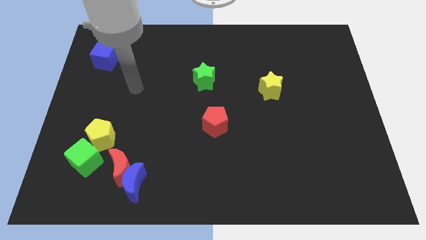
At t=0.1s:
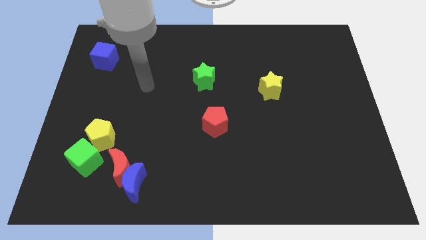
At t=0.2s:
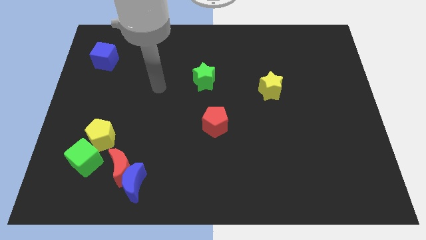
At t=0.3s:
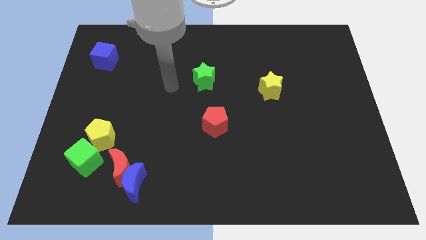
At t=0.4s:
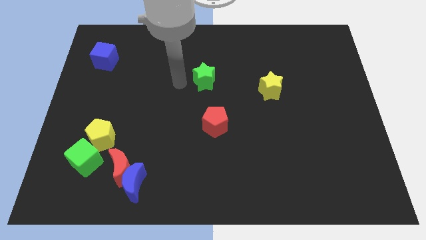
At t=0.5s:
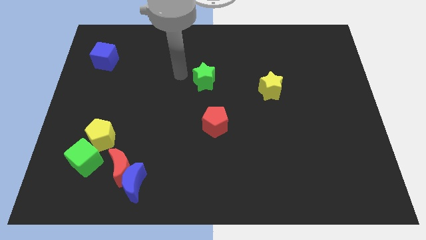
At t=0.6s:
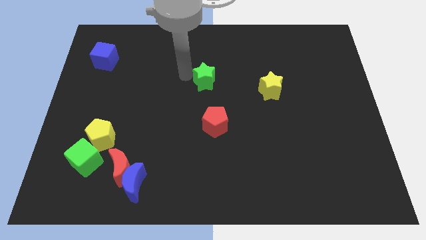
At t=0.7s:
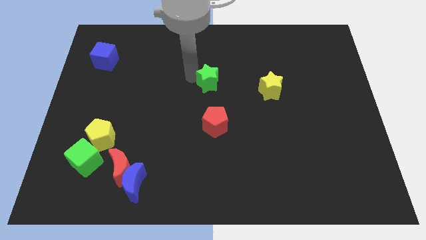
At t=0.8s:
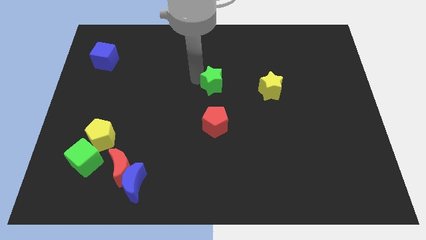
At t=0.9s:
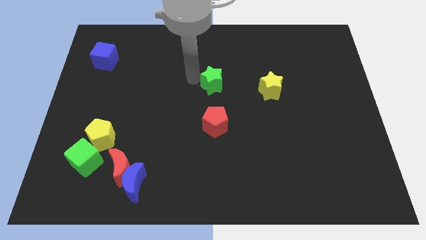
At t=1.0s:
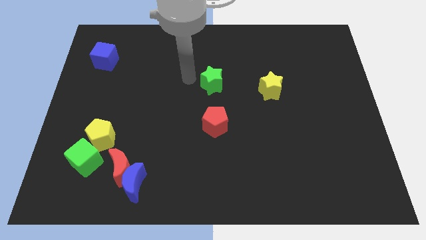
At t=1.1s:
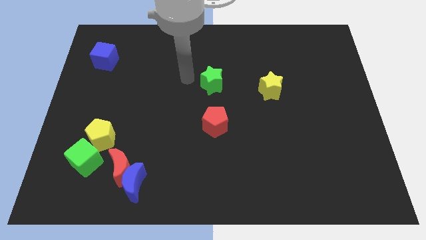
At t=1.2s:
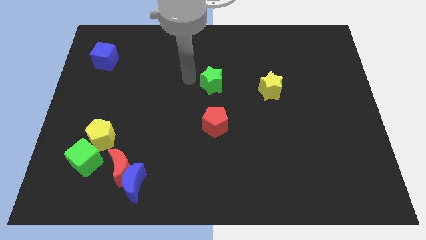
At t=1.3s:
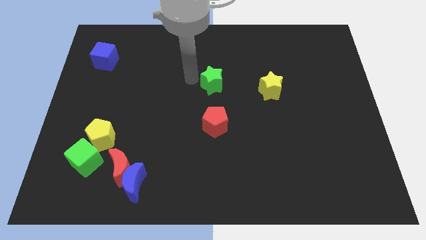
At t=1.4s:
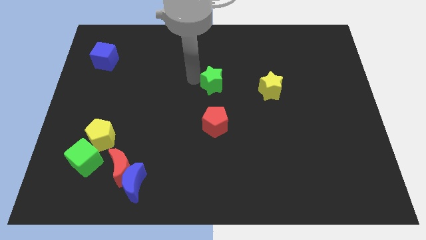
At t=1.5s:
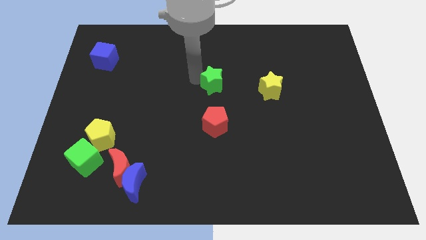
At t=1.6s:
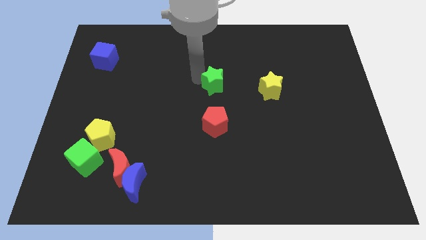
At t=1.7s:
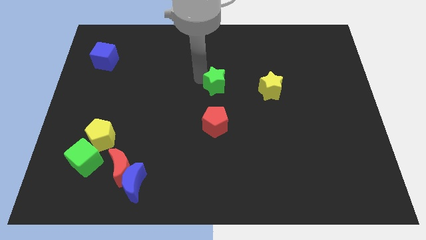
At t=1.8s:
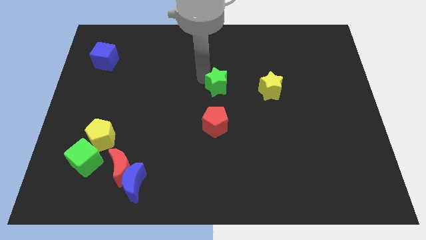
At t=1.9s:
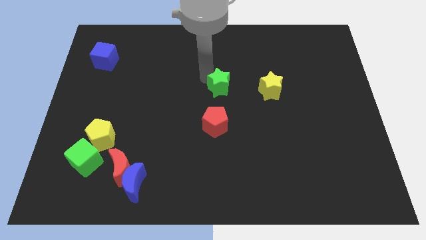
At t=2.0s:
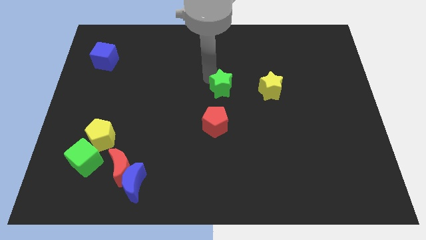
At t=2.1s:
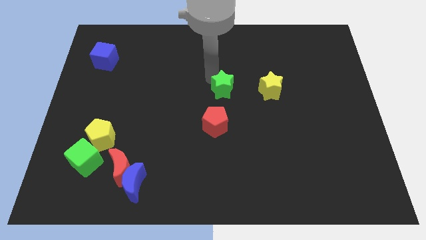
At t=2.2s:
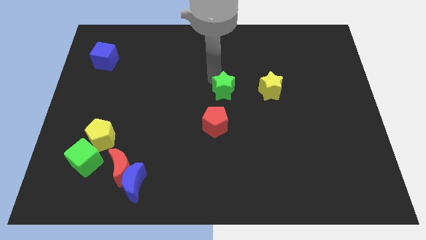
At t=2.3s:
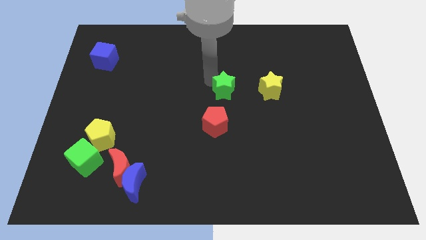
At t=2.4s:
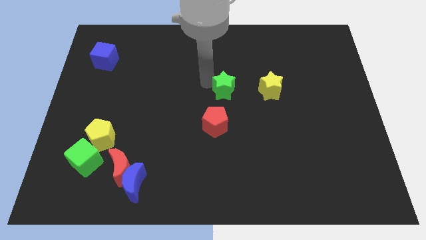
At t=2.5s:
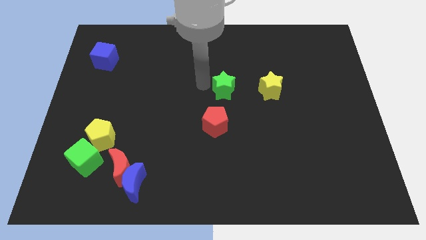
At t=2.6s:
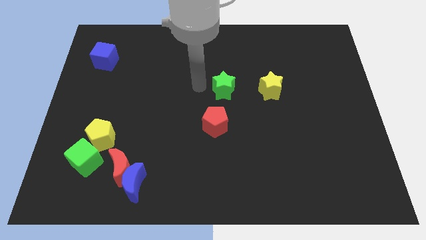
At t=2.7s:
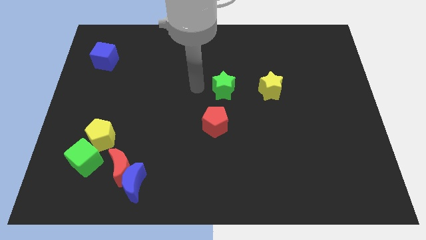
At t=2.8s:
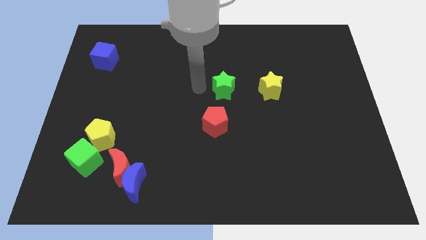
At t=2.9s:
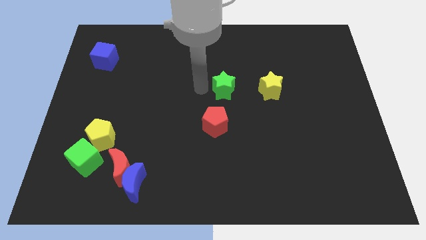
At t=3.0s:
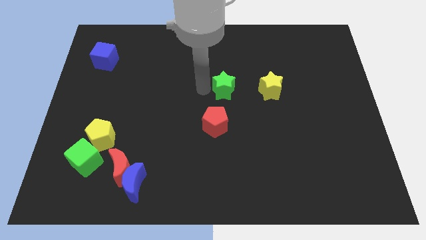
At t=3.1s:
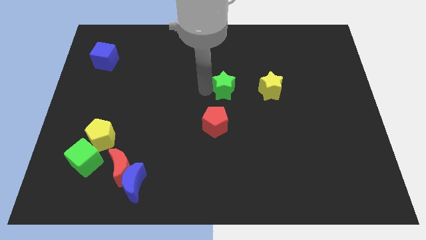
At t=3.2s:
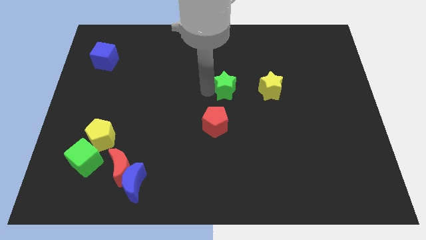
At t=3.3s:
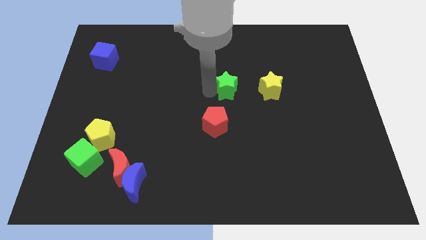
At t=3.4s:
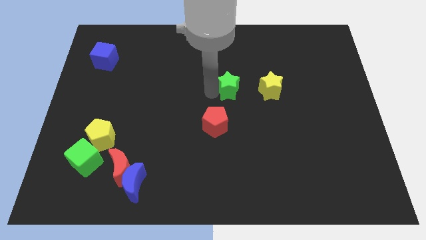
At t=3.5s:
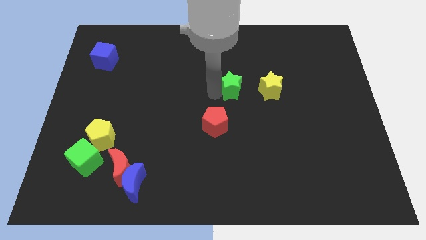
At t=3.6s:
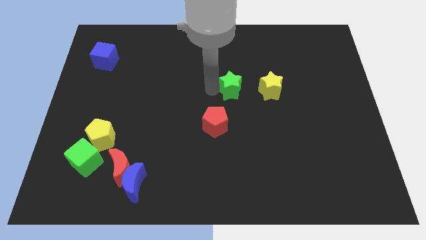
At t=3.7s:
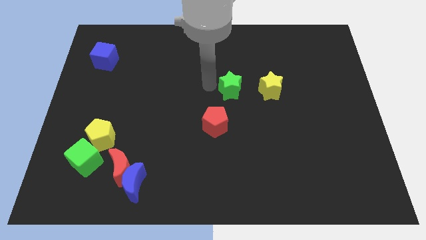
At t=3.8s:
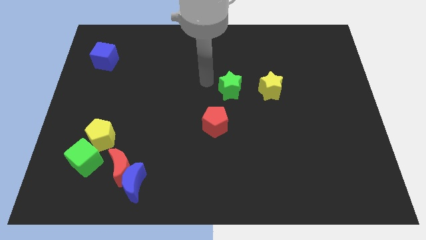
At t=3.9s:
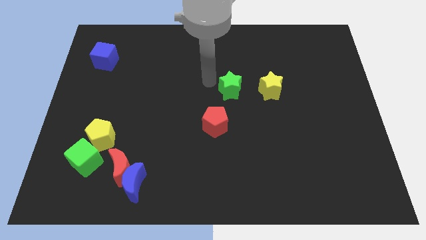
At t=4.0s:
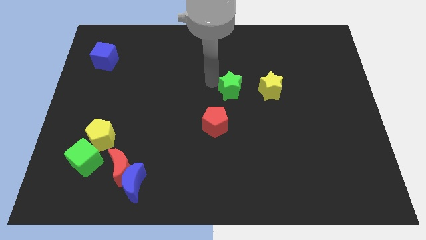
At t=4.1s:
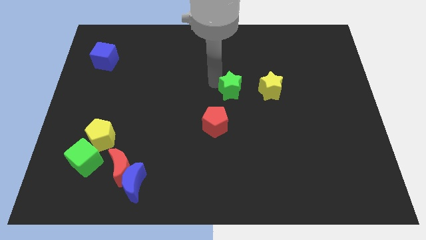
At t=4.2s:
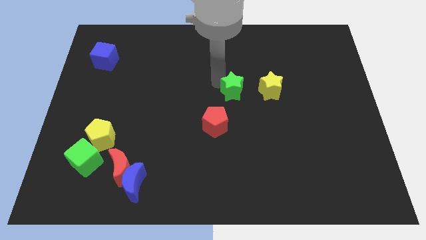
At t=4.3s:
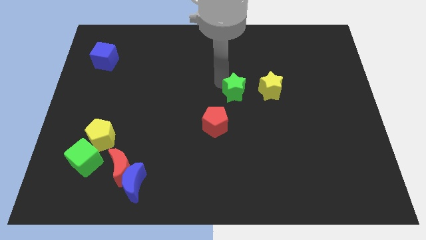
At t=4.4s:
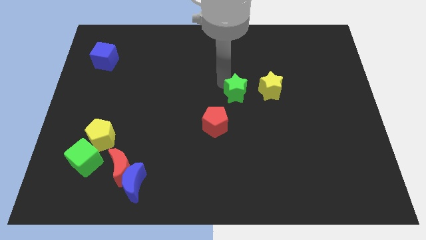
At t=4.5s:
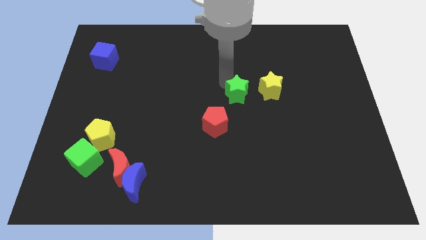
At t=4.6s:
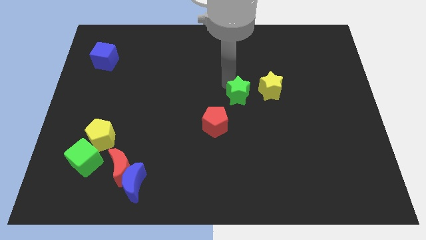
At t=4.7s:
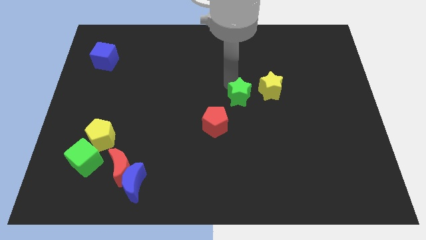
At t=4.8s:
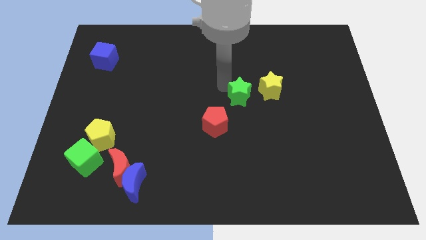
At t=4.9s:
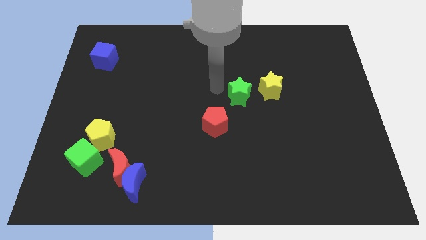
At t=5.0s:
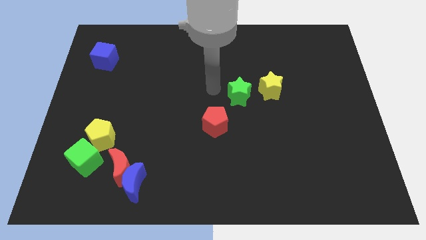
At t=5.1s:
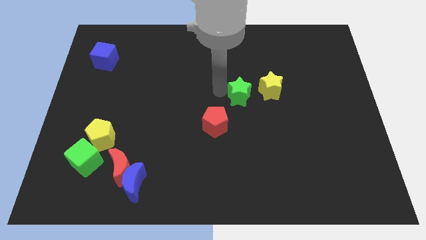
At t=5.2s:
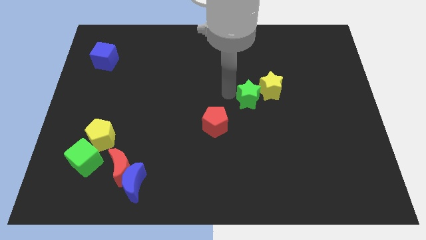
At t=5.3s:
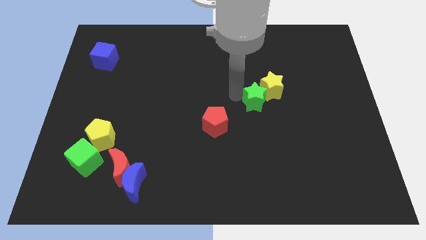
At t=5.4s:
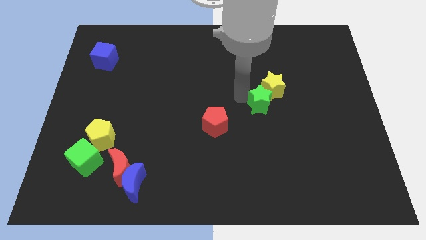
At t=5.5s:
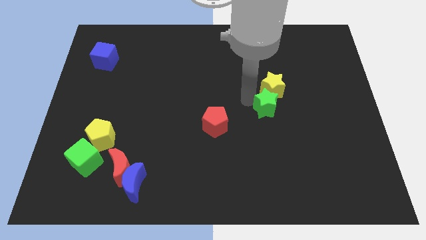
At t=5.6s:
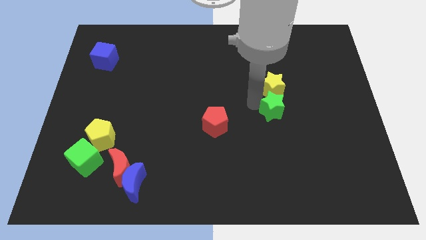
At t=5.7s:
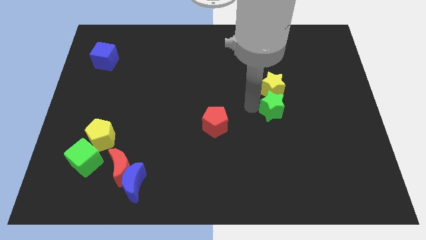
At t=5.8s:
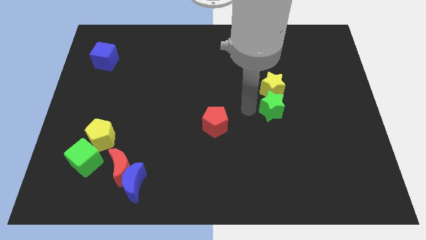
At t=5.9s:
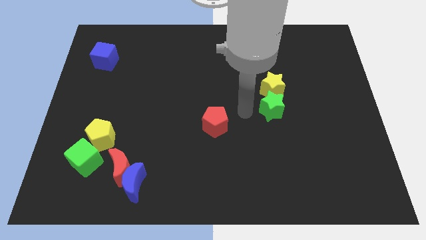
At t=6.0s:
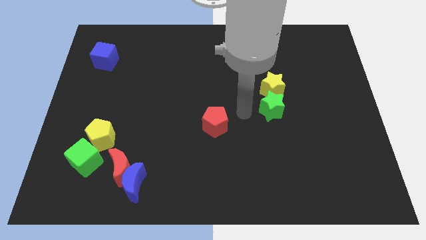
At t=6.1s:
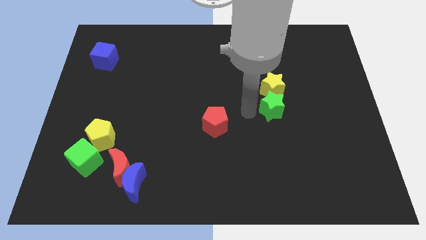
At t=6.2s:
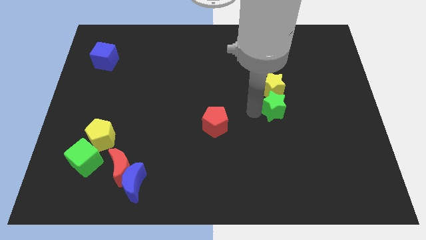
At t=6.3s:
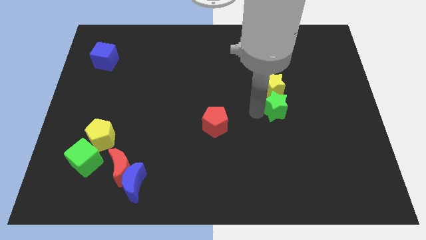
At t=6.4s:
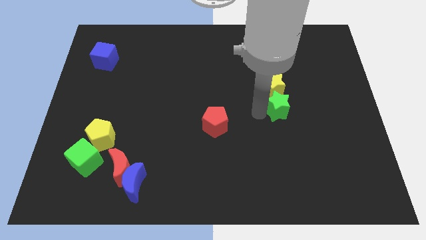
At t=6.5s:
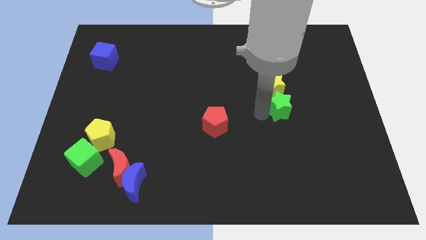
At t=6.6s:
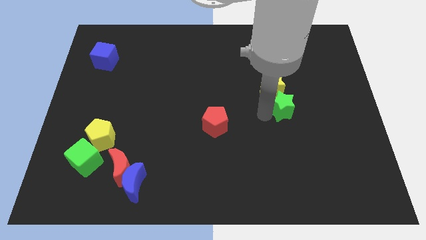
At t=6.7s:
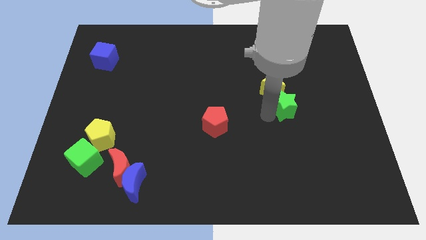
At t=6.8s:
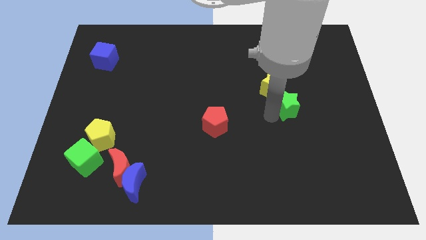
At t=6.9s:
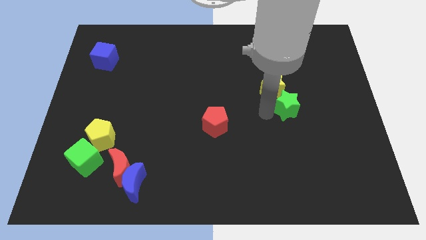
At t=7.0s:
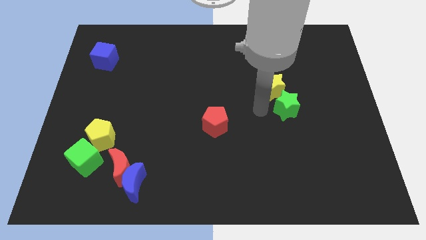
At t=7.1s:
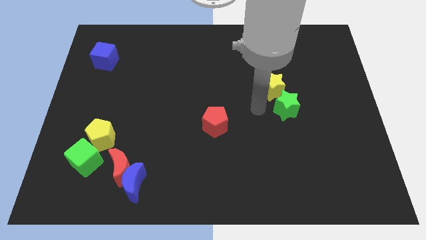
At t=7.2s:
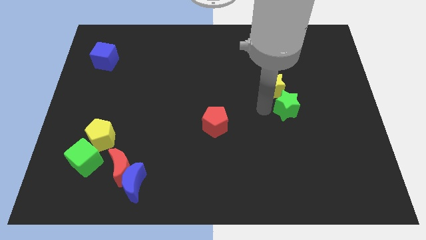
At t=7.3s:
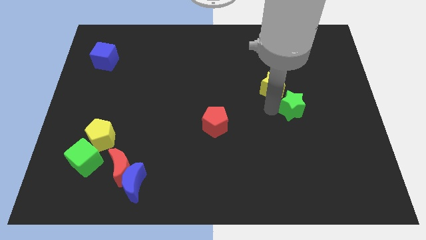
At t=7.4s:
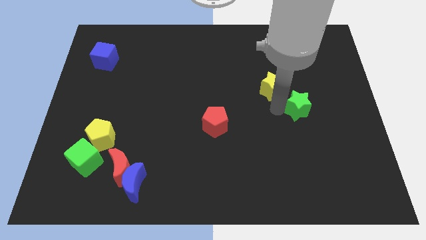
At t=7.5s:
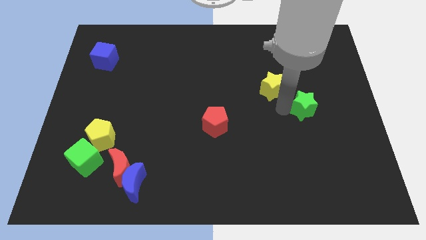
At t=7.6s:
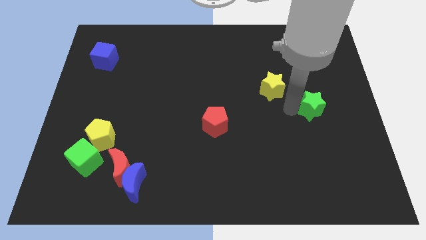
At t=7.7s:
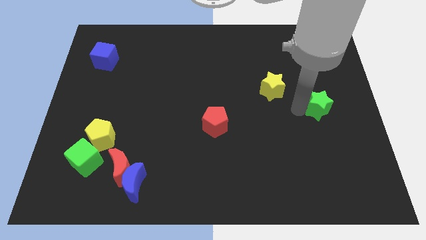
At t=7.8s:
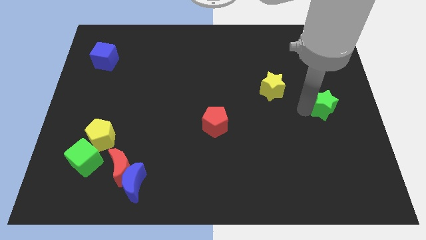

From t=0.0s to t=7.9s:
slide the green star to the center right
